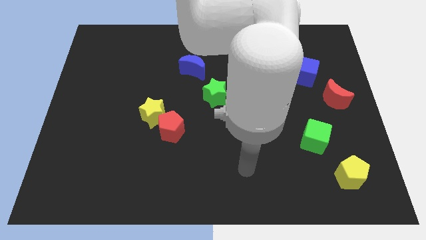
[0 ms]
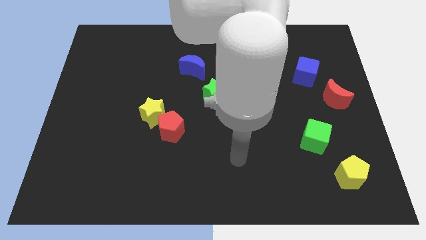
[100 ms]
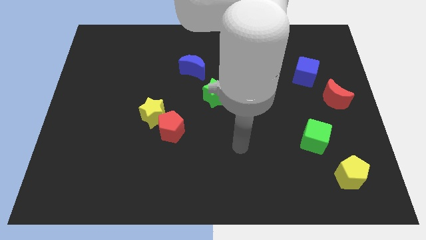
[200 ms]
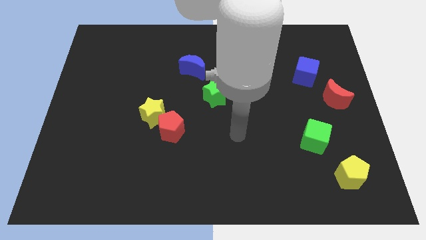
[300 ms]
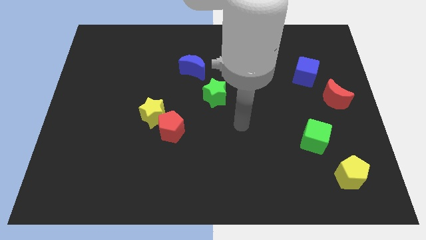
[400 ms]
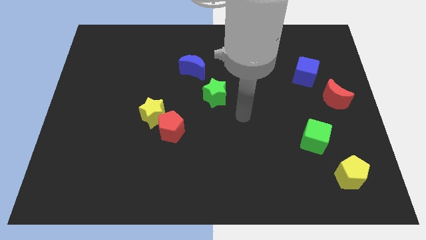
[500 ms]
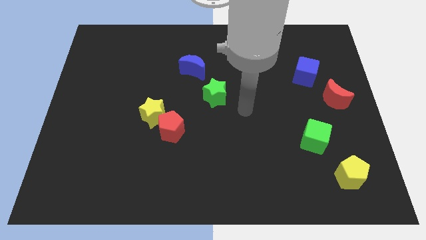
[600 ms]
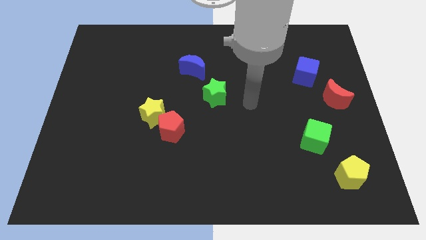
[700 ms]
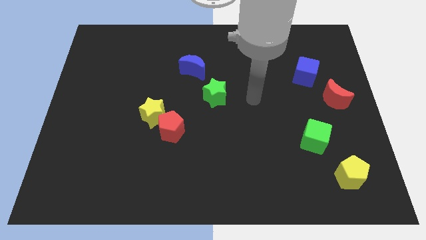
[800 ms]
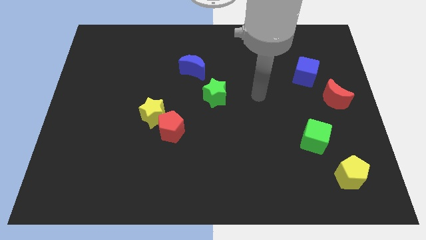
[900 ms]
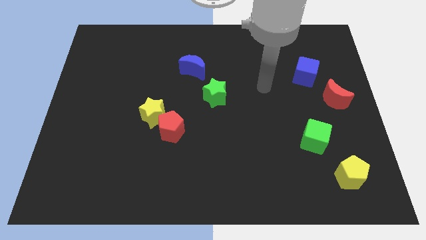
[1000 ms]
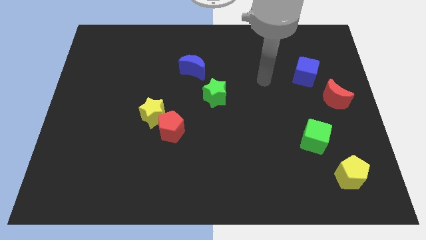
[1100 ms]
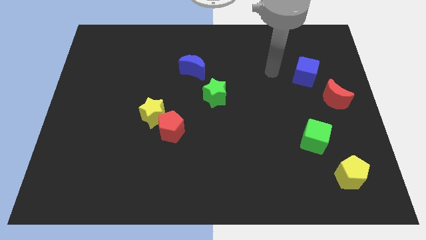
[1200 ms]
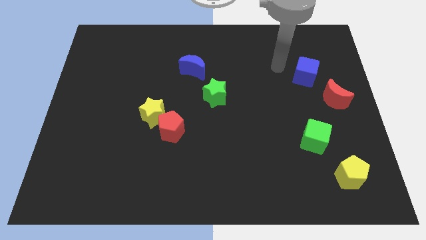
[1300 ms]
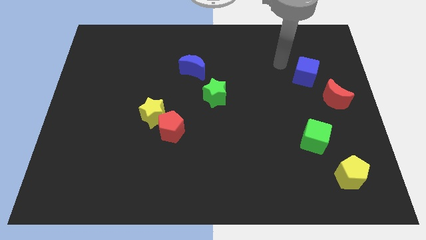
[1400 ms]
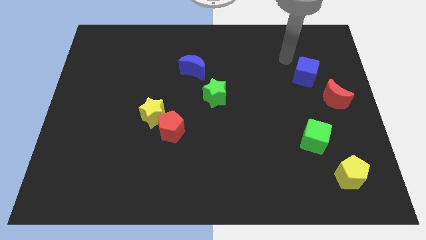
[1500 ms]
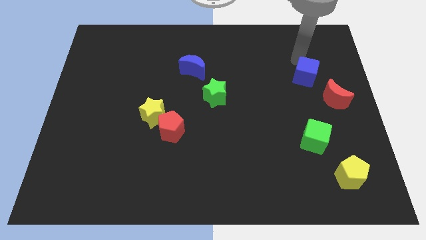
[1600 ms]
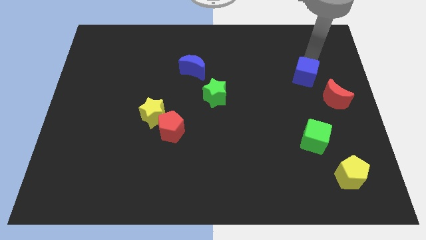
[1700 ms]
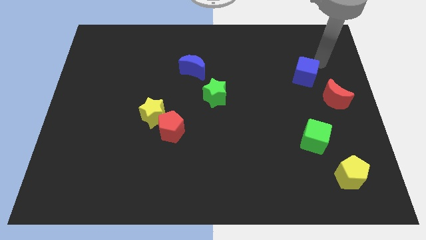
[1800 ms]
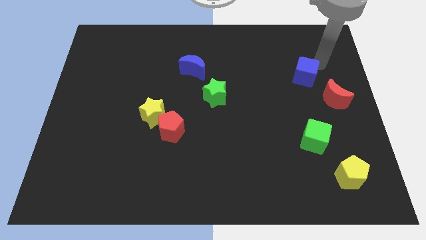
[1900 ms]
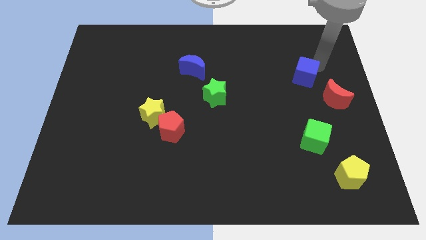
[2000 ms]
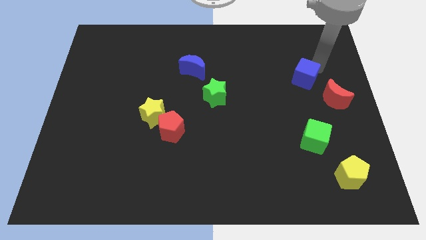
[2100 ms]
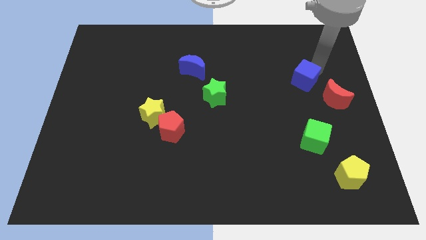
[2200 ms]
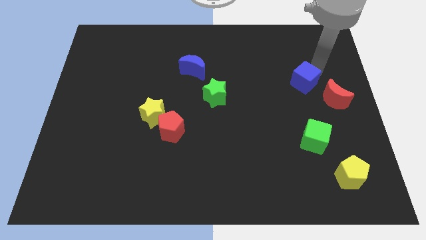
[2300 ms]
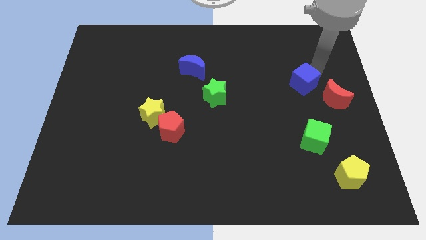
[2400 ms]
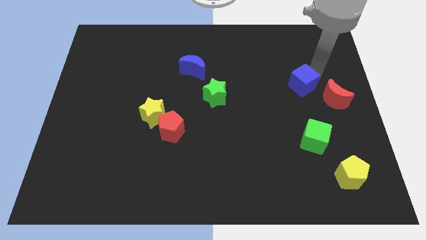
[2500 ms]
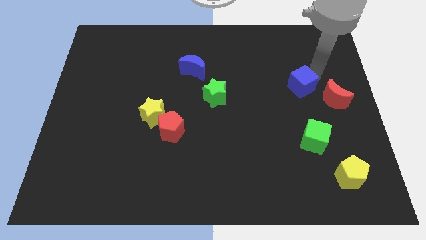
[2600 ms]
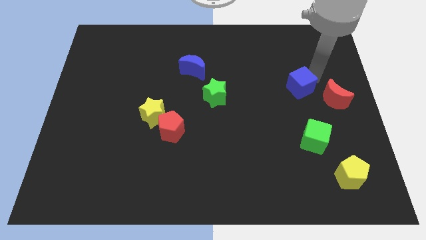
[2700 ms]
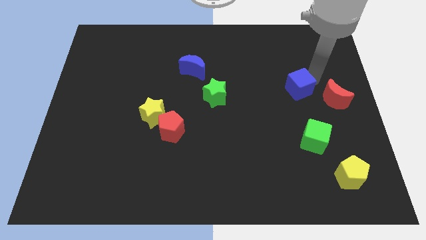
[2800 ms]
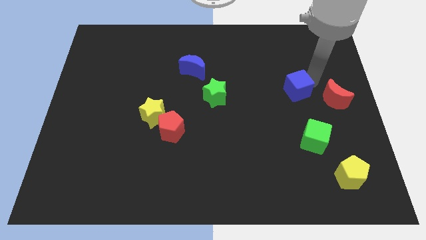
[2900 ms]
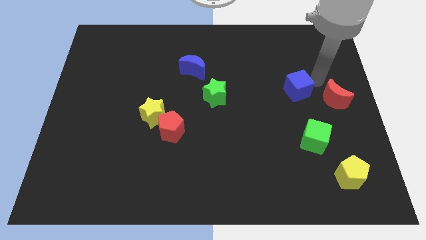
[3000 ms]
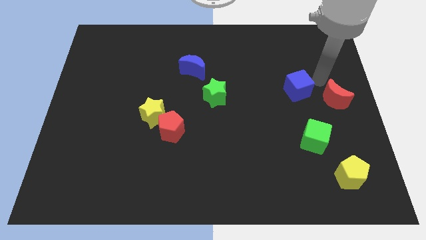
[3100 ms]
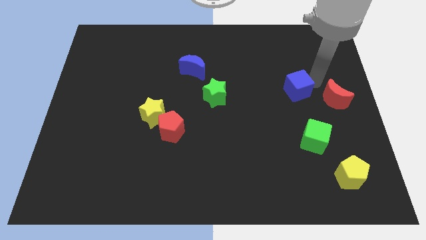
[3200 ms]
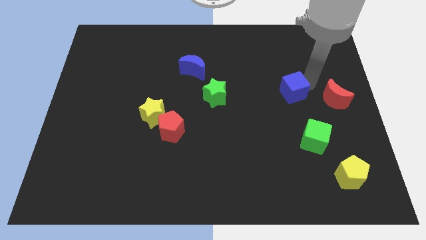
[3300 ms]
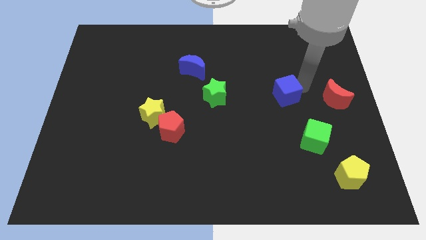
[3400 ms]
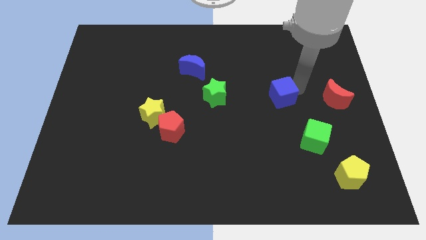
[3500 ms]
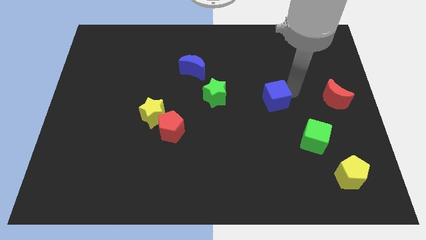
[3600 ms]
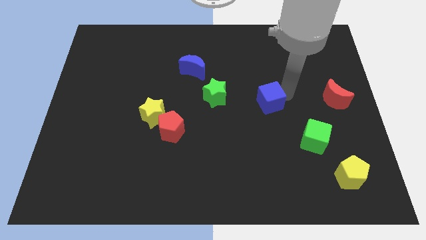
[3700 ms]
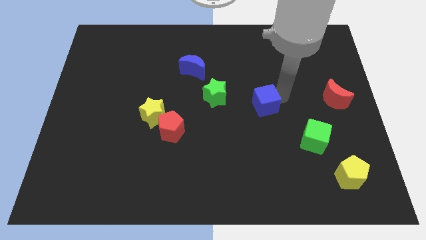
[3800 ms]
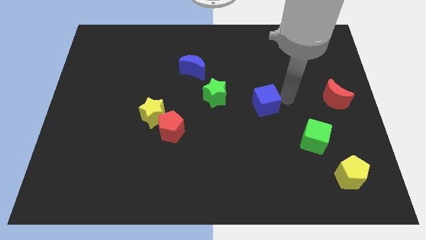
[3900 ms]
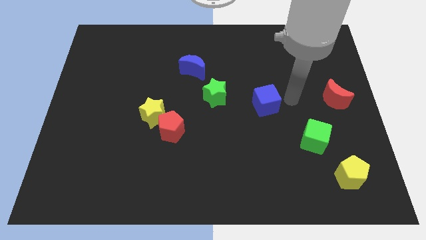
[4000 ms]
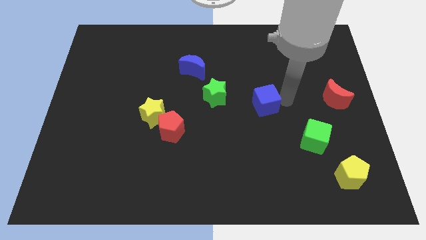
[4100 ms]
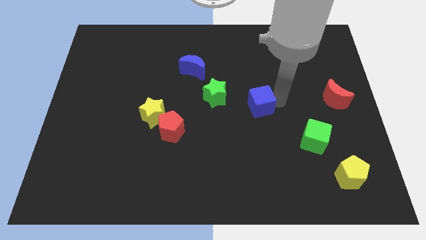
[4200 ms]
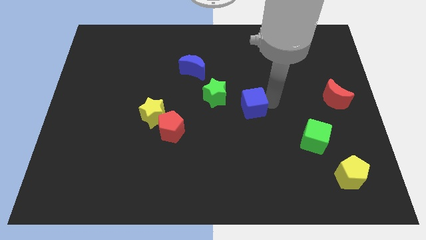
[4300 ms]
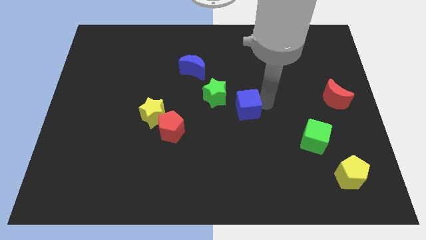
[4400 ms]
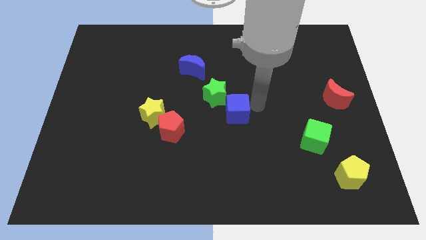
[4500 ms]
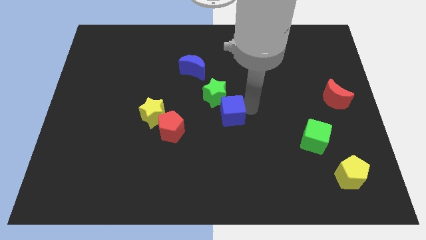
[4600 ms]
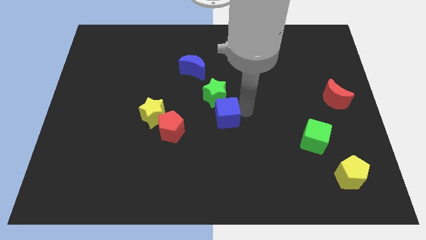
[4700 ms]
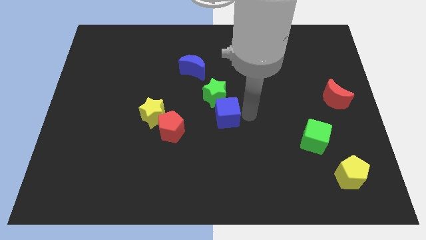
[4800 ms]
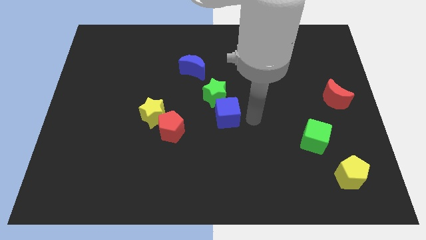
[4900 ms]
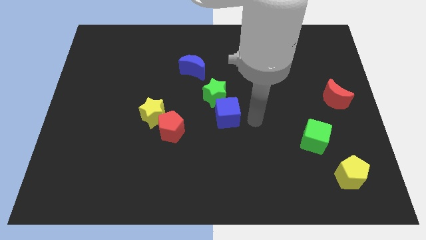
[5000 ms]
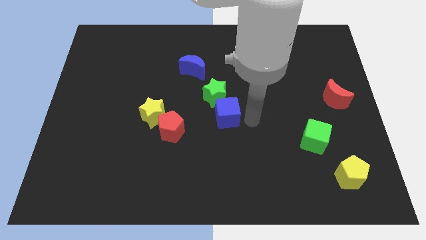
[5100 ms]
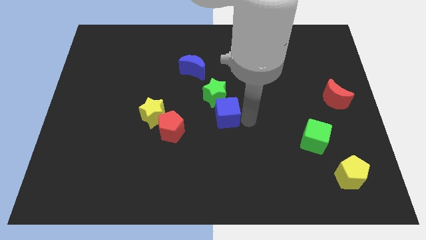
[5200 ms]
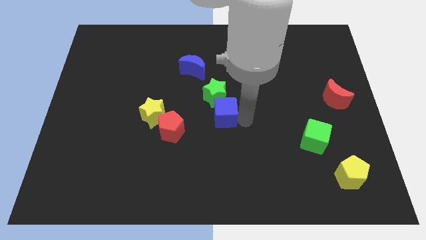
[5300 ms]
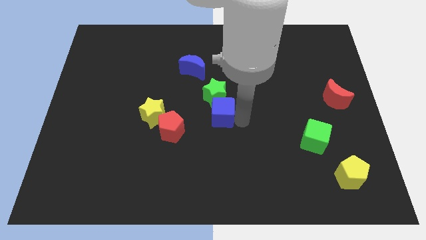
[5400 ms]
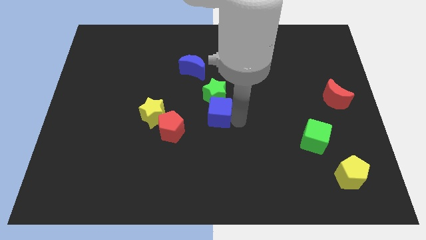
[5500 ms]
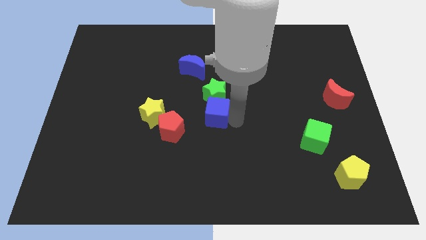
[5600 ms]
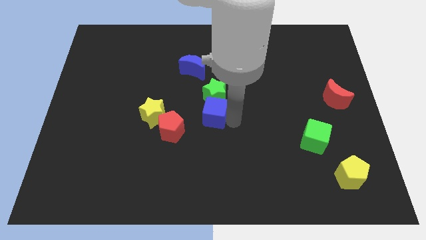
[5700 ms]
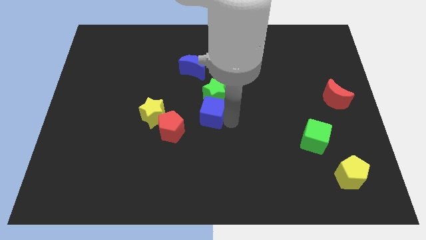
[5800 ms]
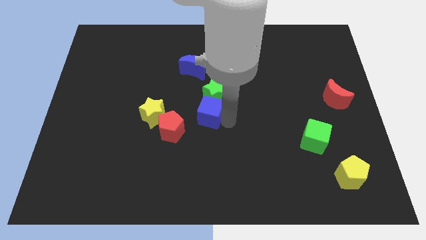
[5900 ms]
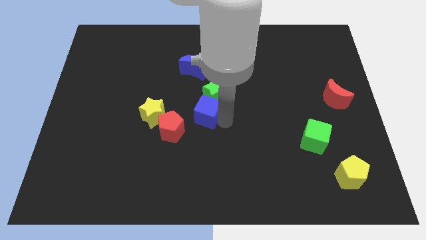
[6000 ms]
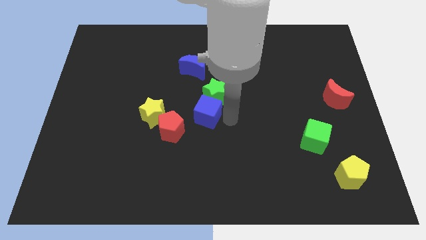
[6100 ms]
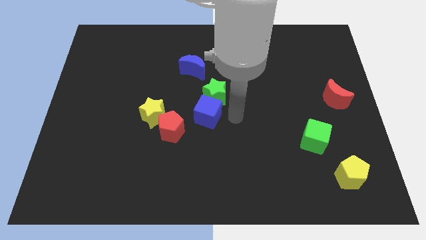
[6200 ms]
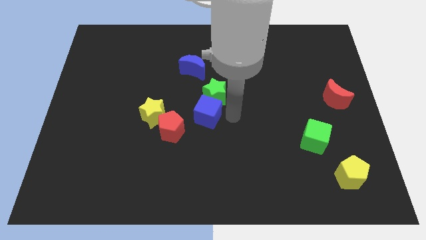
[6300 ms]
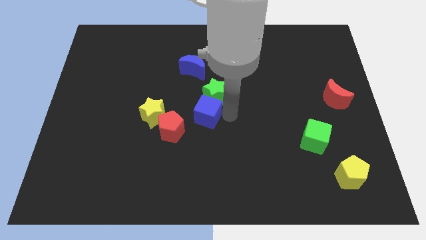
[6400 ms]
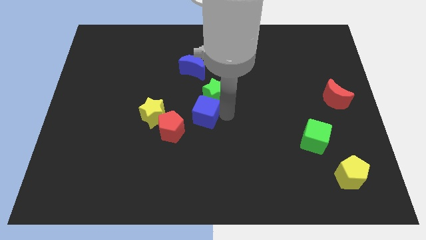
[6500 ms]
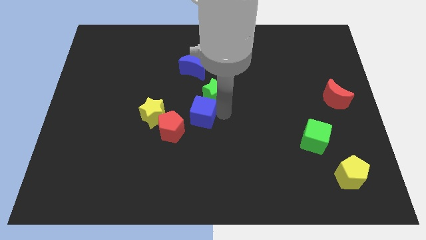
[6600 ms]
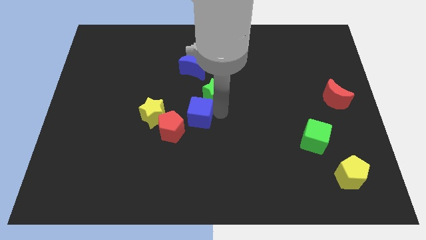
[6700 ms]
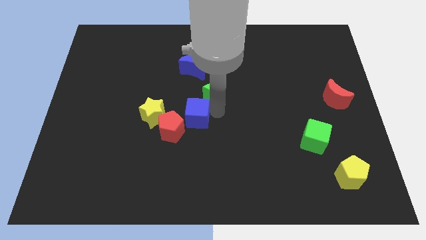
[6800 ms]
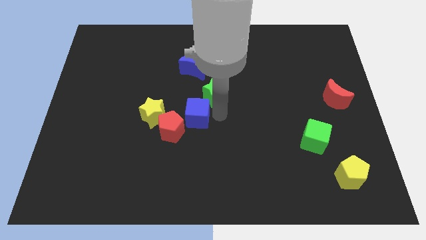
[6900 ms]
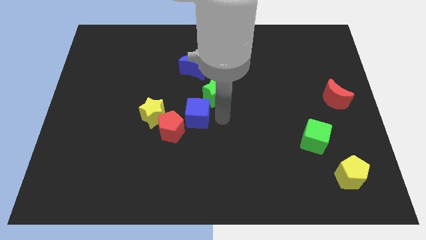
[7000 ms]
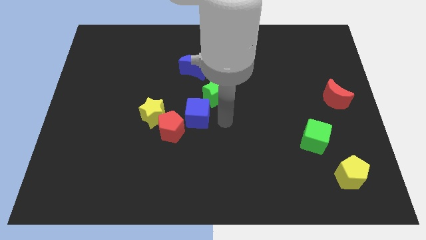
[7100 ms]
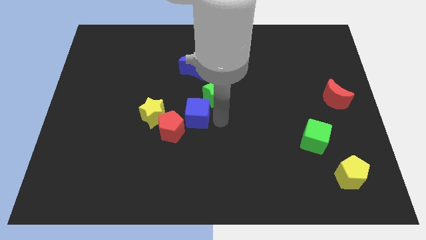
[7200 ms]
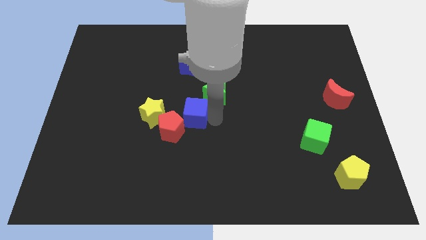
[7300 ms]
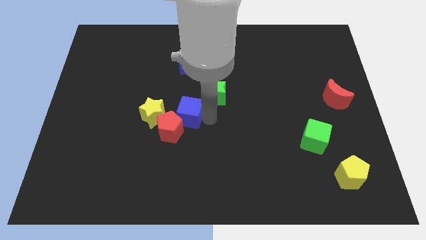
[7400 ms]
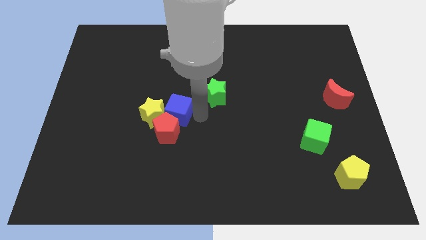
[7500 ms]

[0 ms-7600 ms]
put the blue cube towards the yellow star
